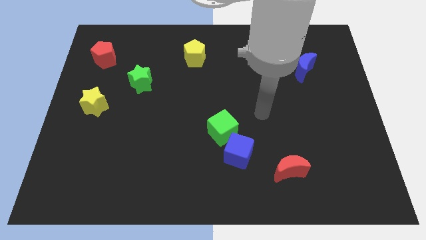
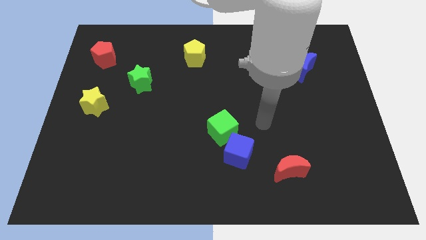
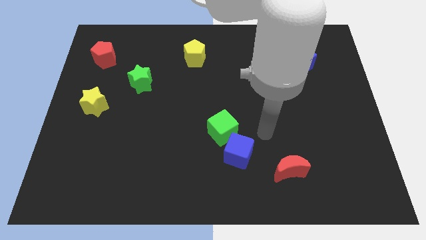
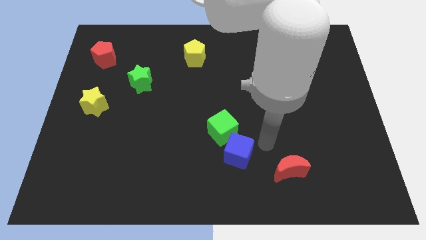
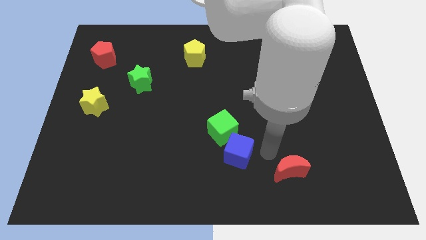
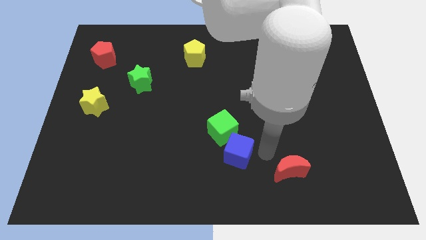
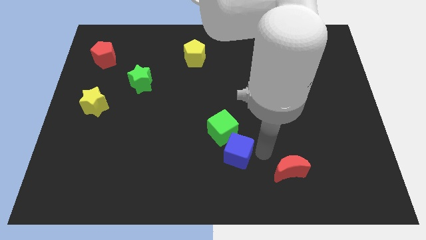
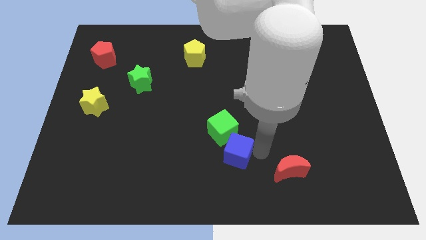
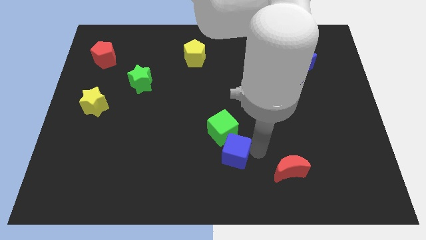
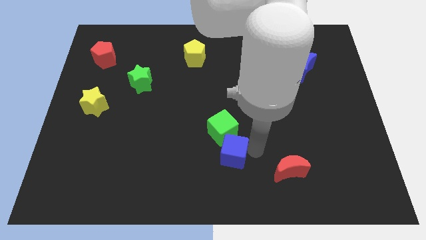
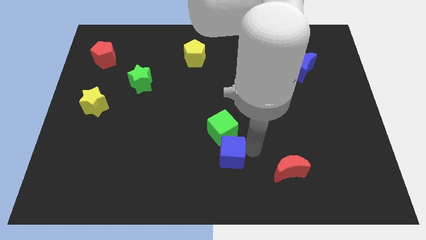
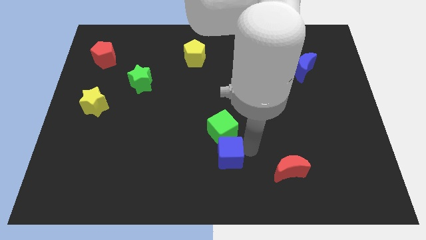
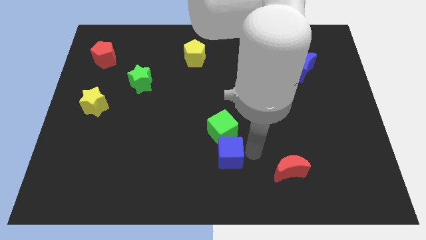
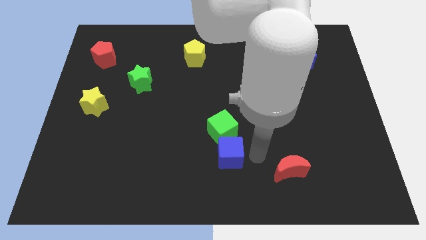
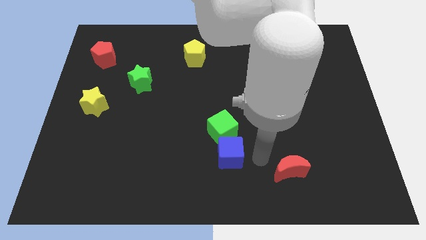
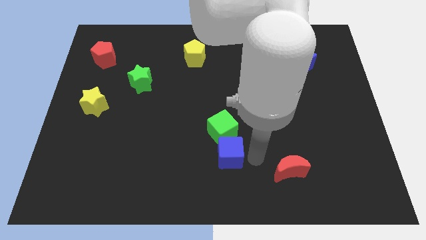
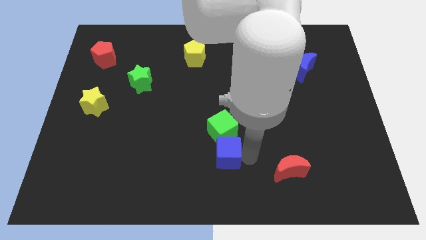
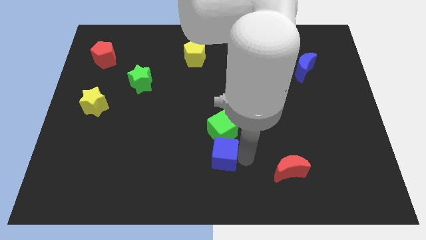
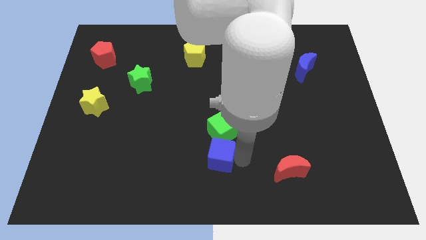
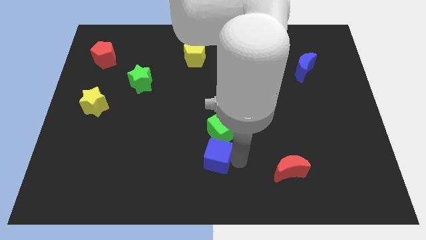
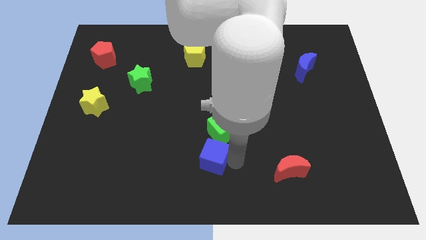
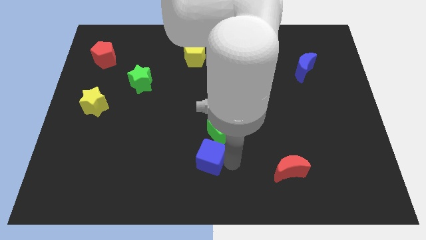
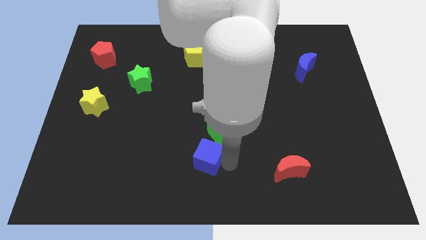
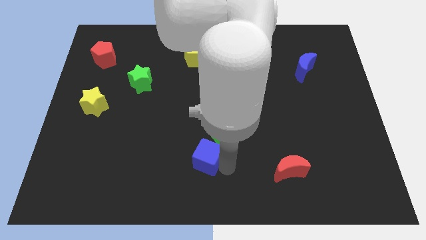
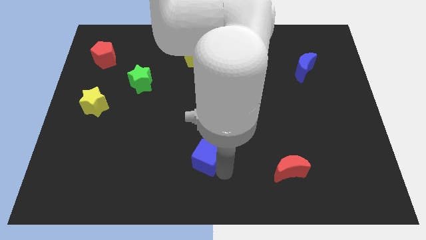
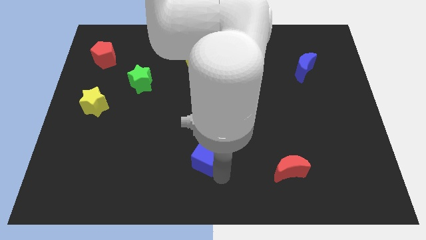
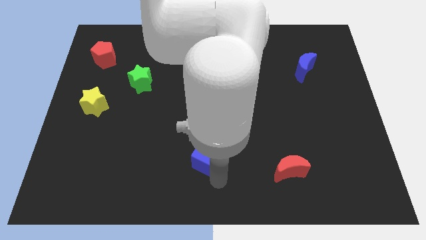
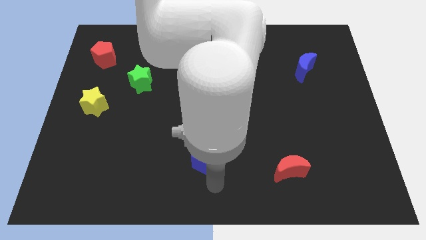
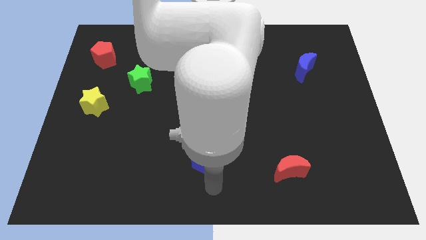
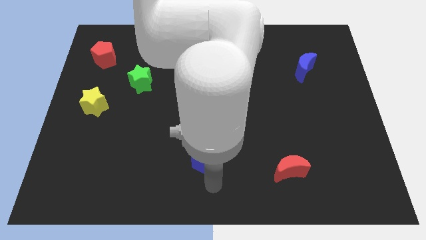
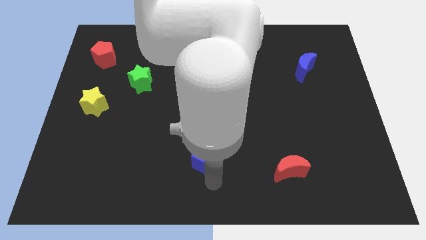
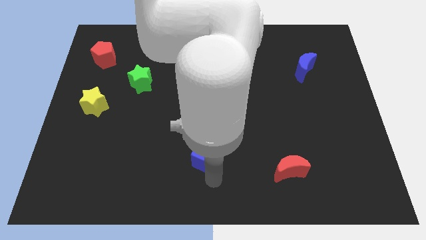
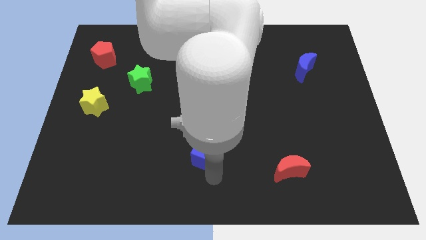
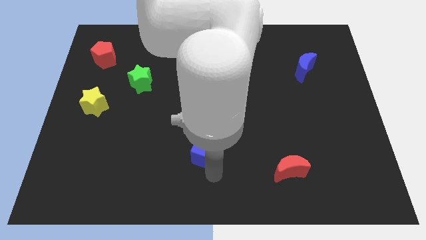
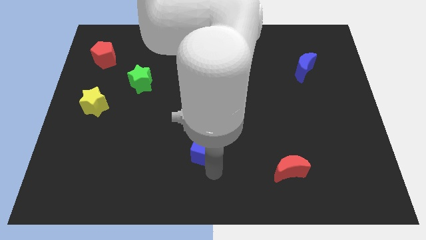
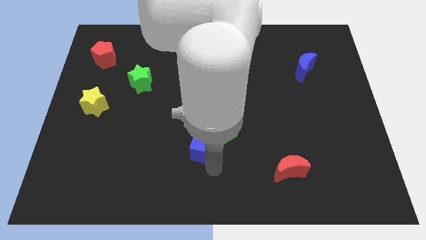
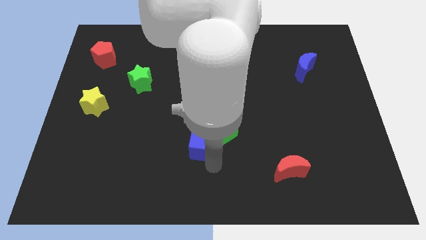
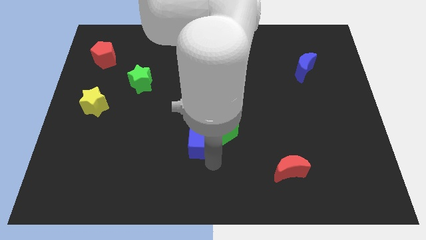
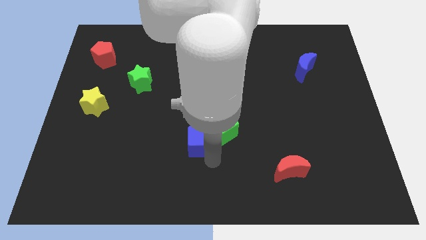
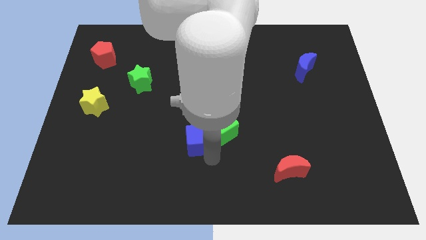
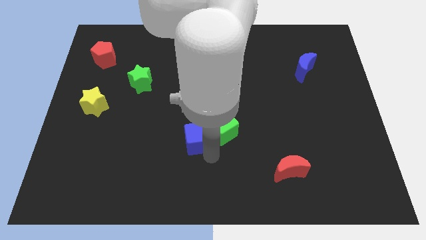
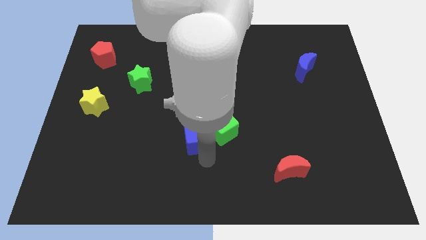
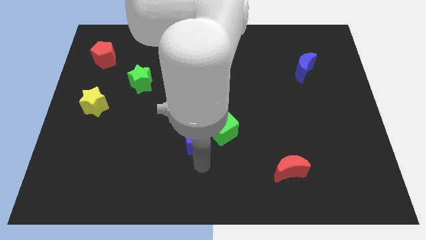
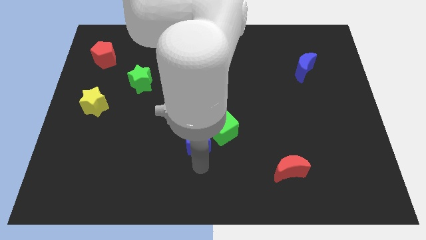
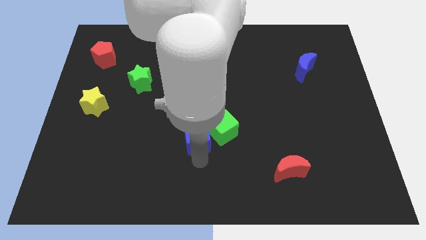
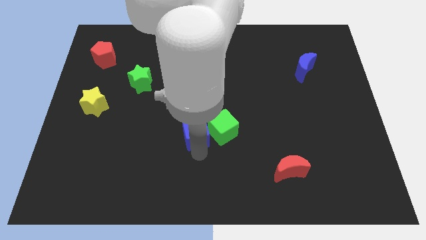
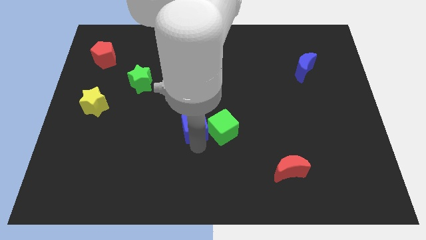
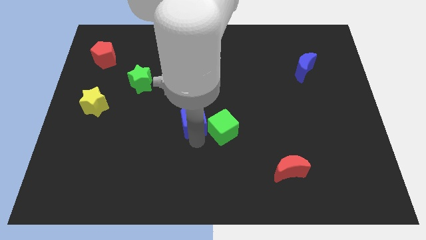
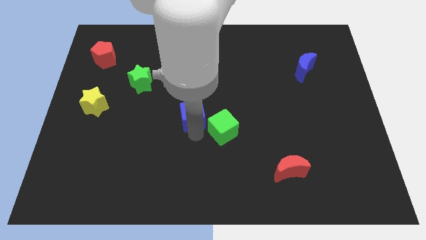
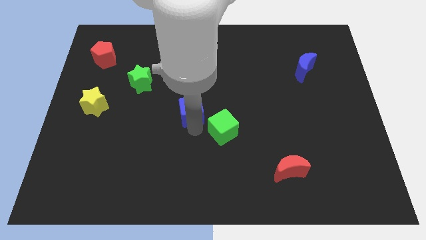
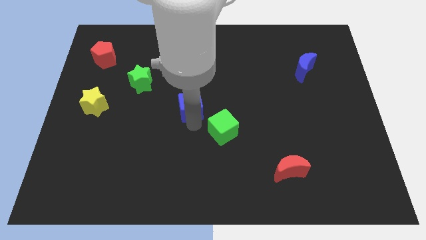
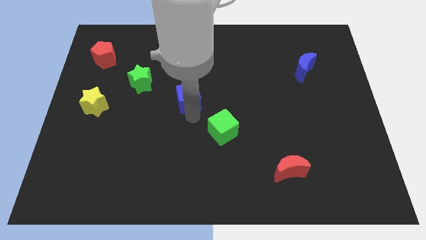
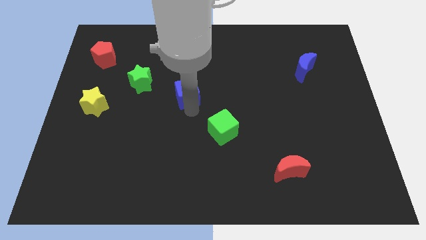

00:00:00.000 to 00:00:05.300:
move the blue cube just right of the green star

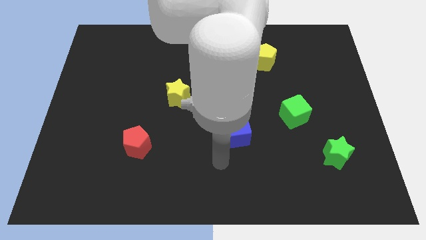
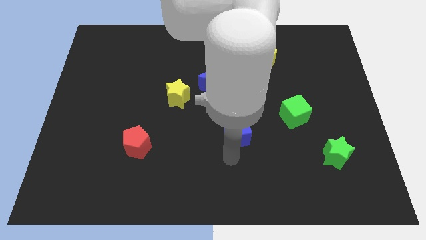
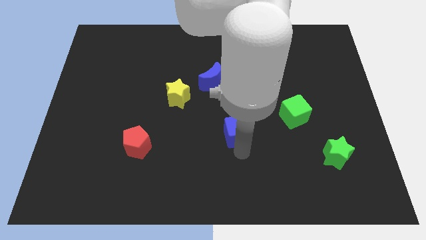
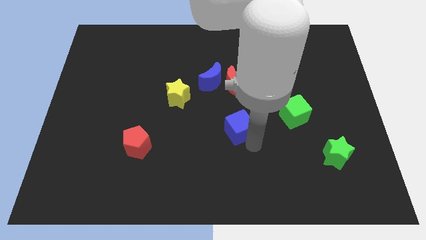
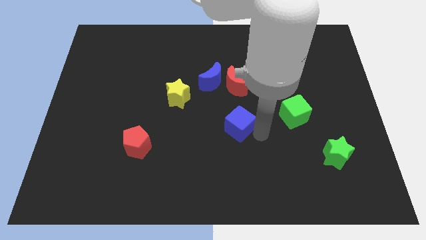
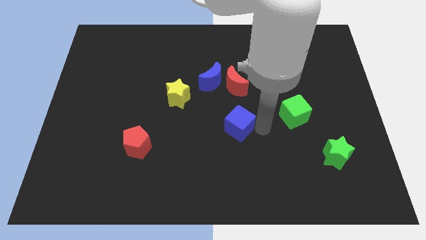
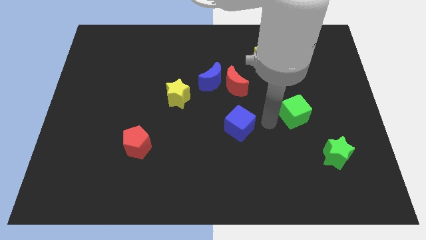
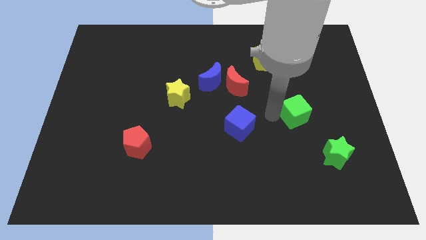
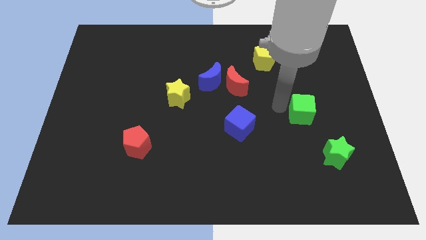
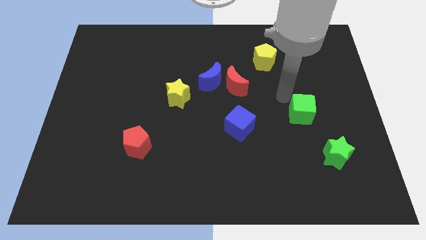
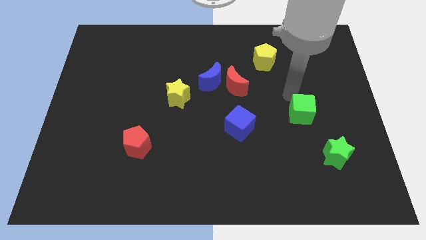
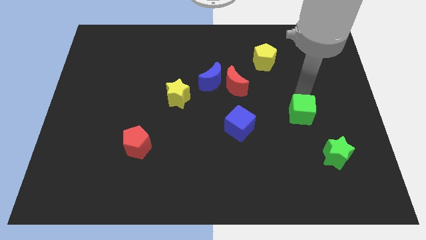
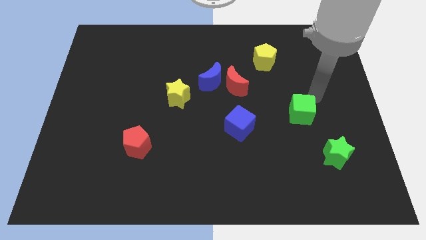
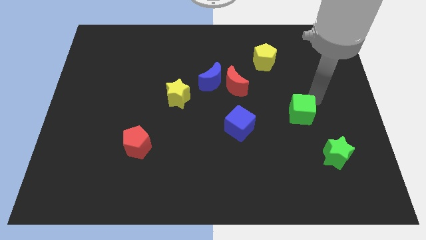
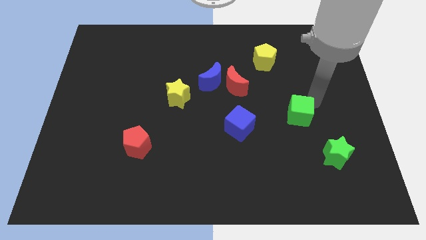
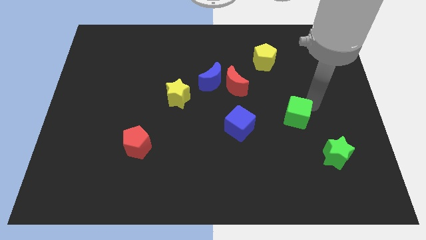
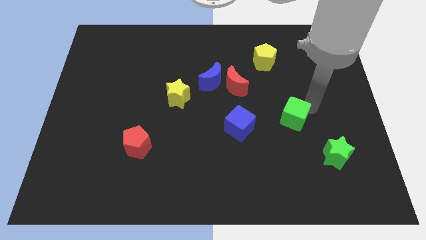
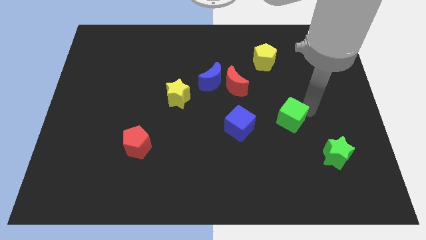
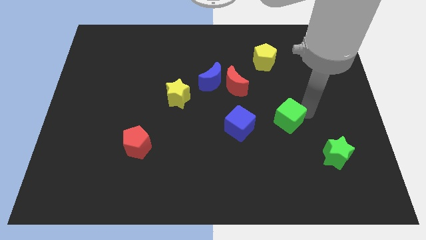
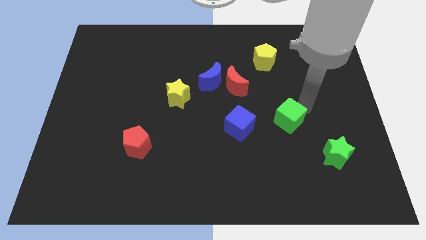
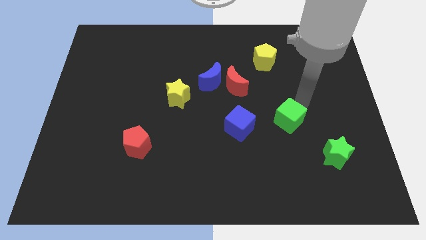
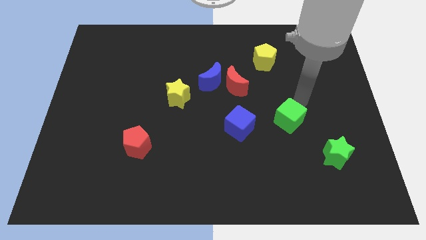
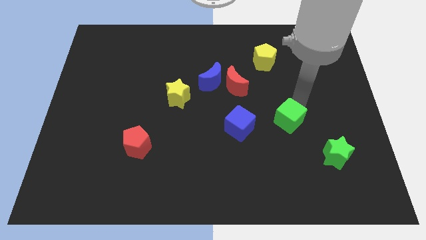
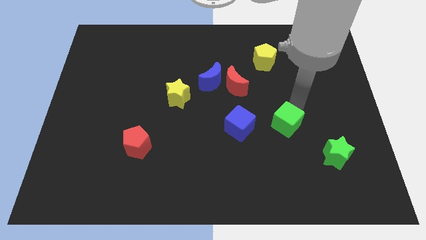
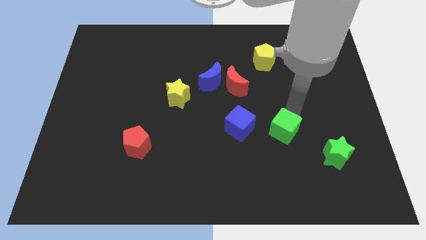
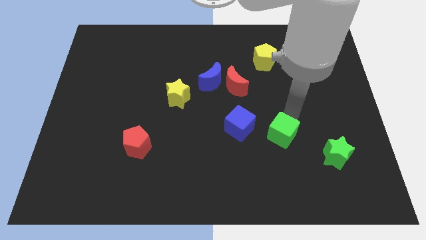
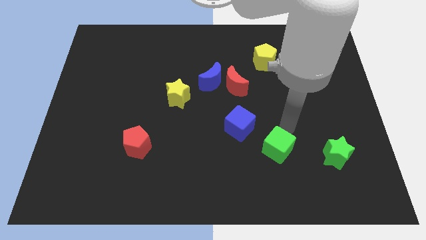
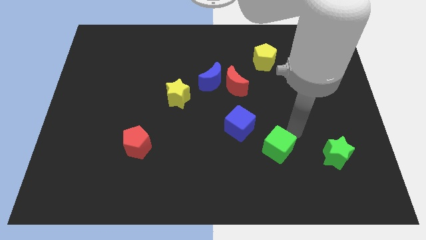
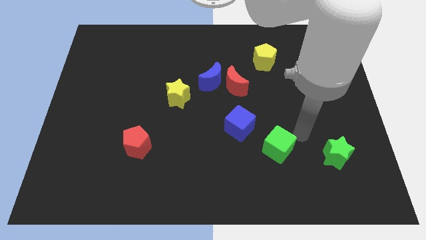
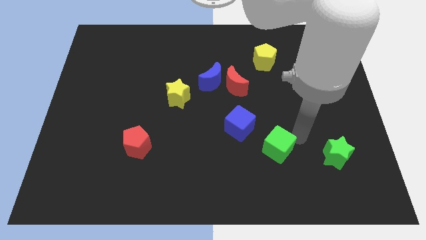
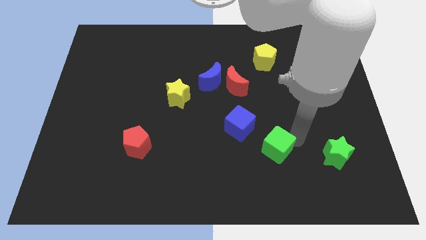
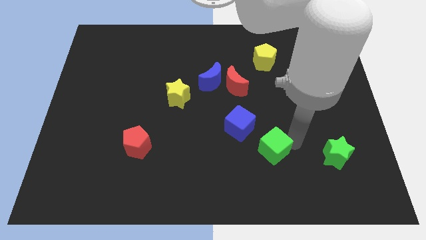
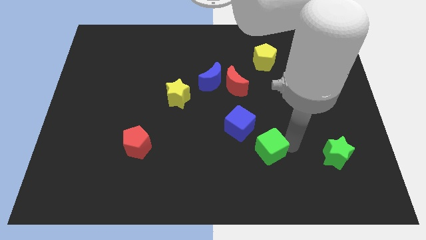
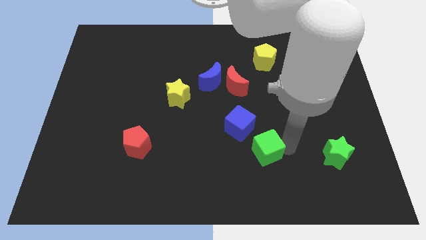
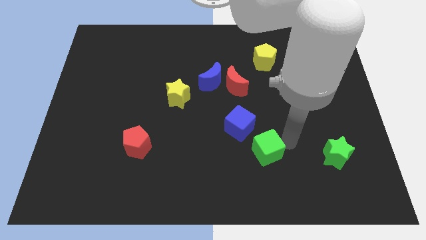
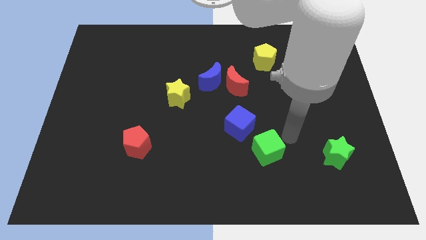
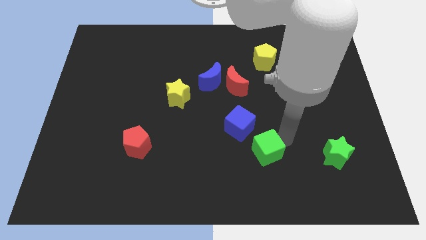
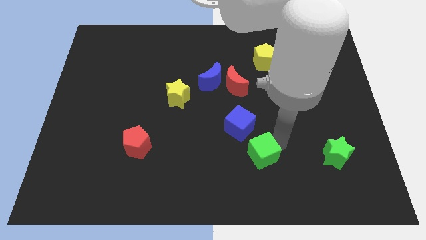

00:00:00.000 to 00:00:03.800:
move the green cube to the bottom side of the blue cube
